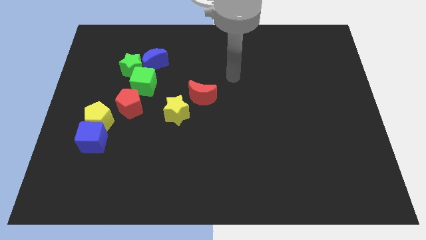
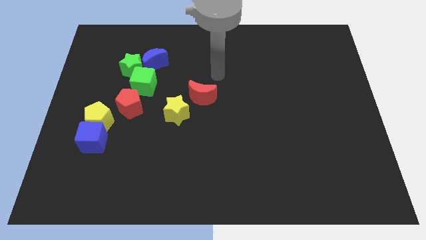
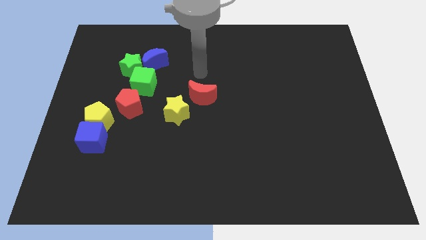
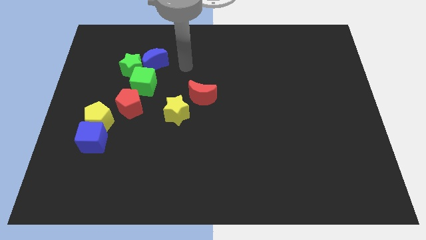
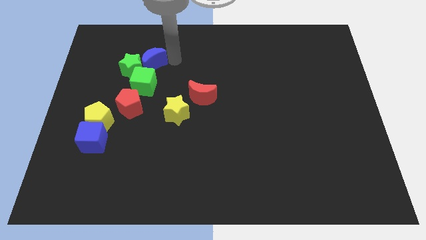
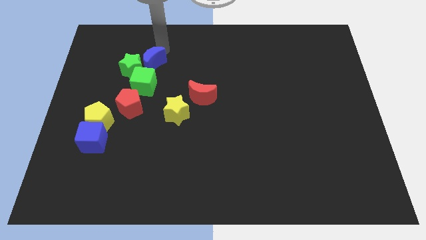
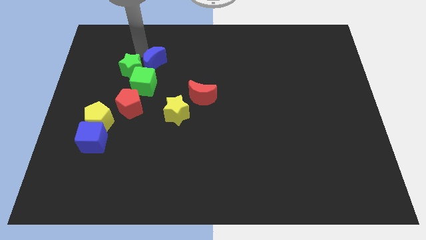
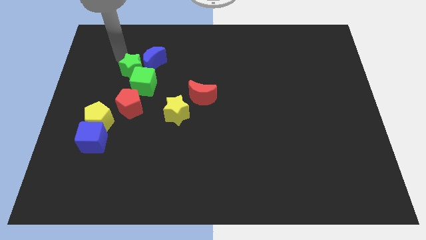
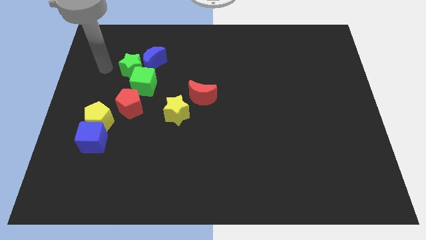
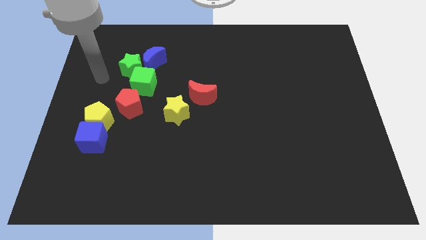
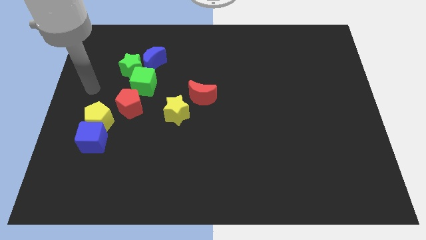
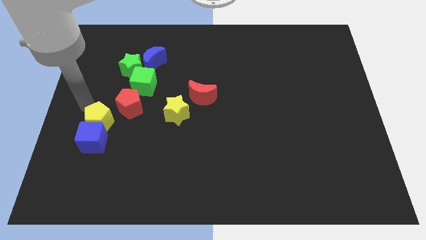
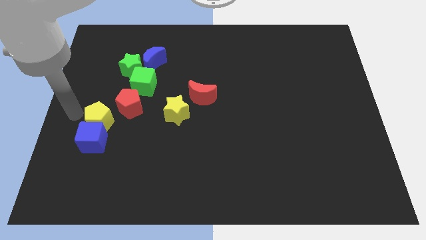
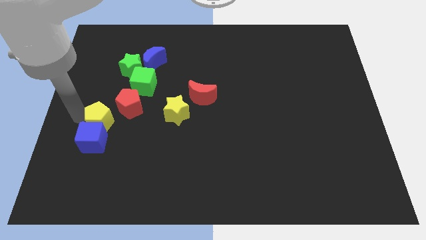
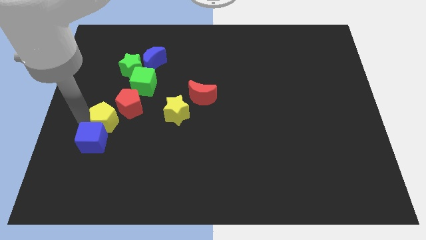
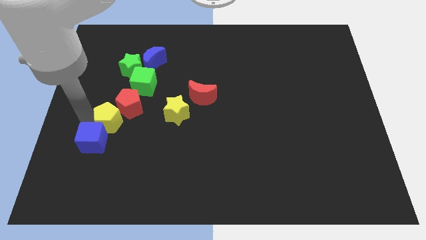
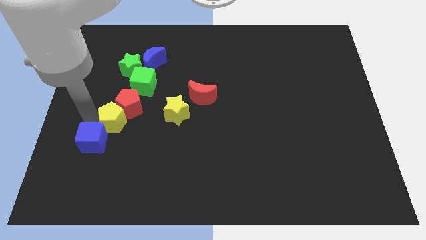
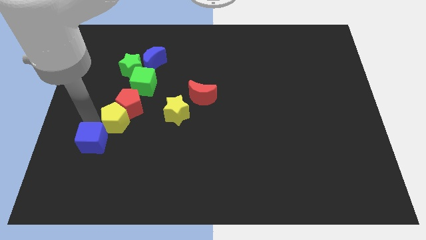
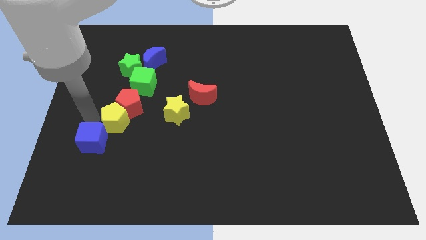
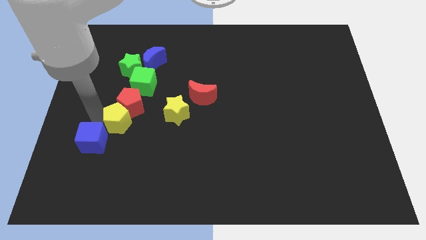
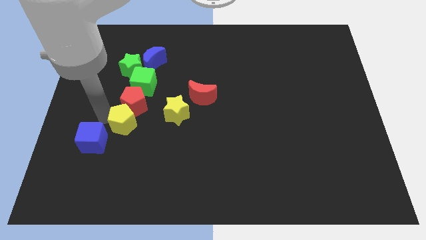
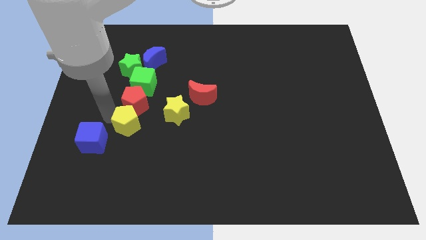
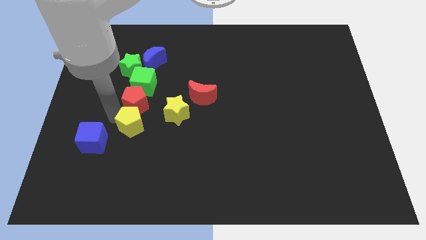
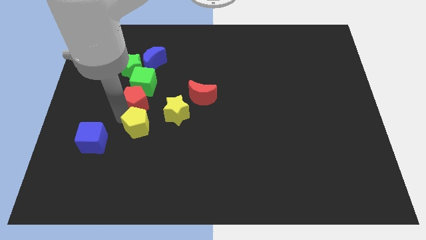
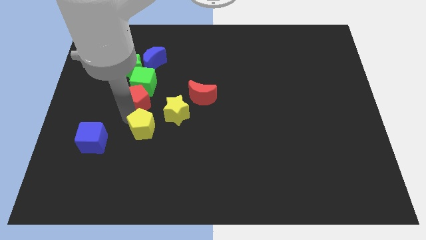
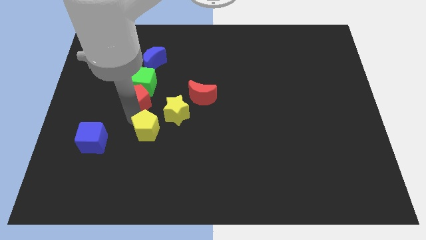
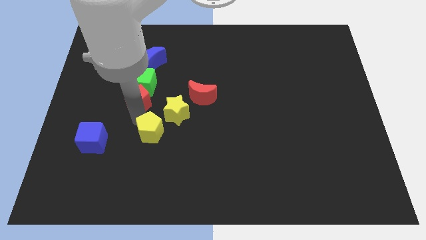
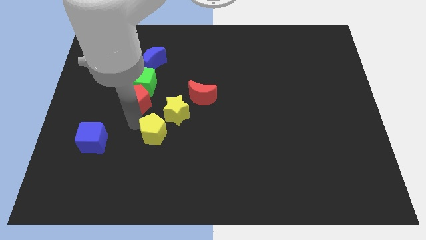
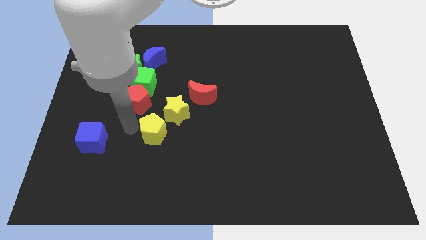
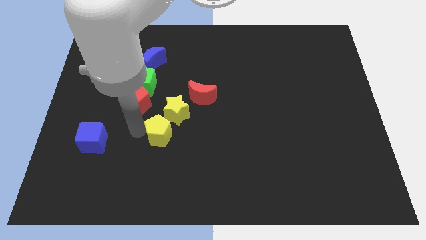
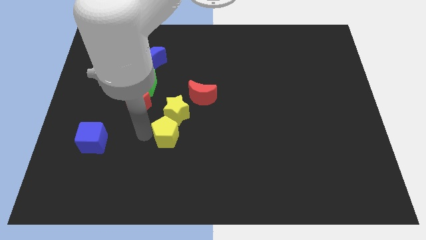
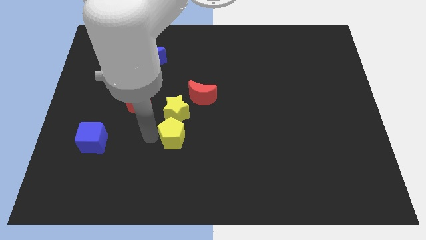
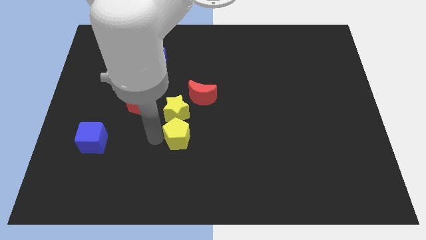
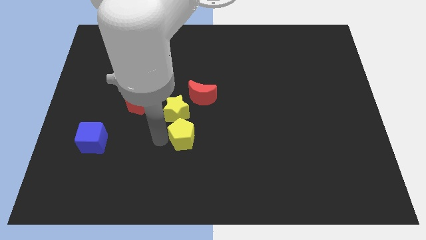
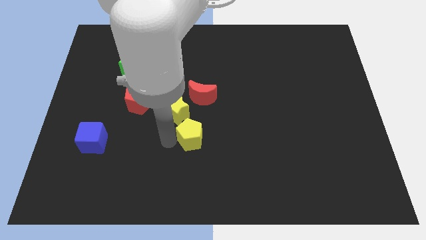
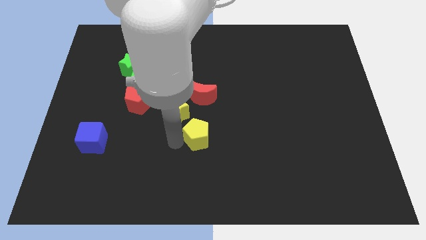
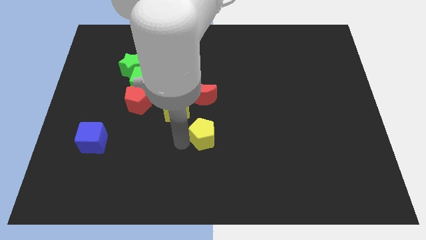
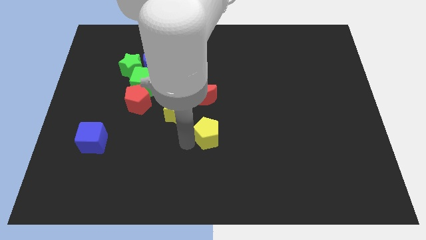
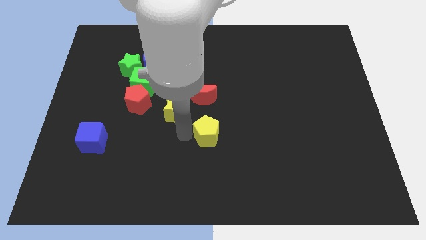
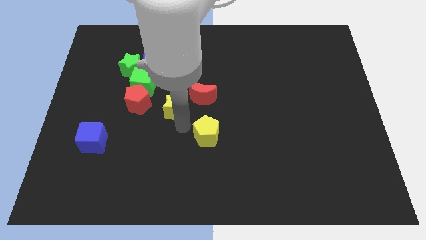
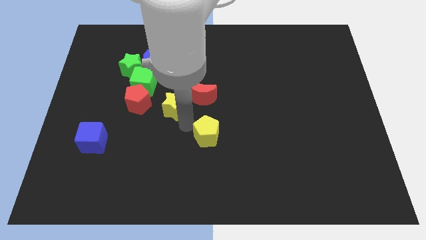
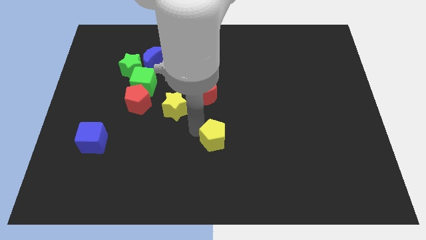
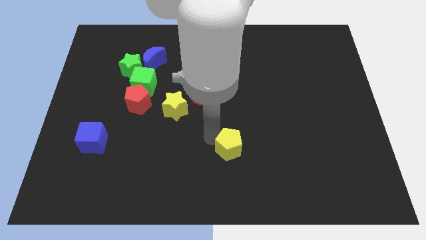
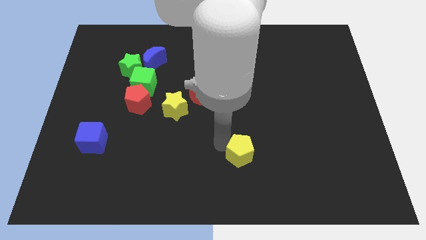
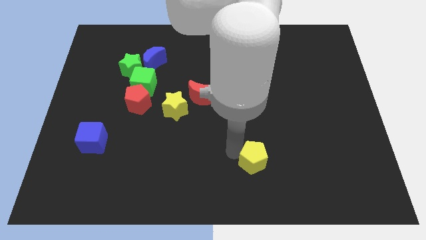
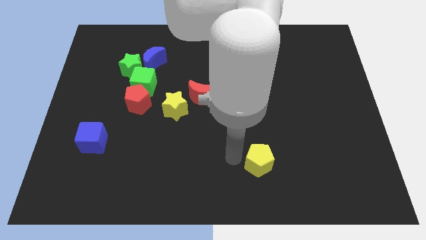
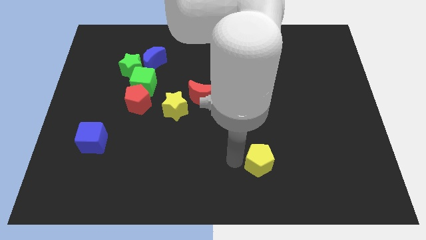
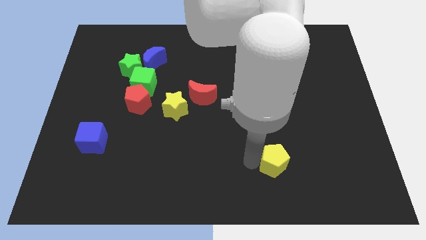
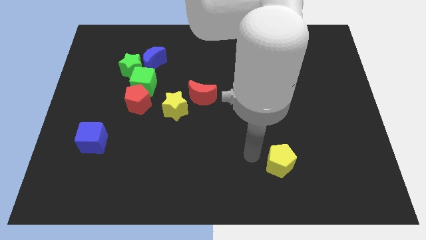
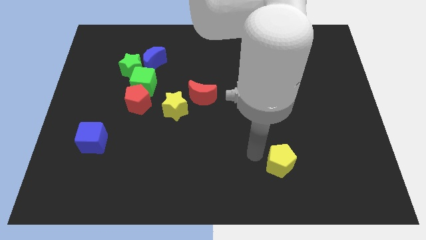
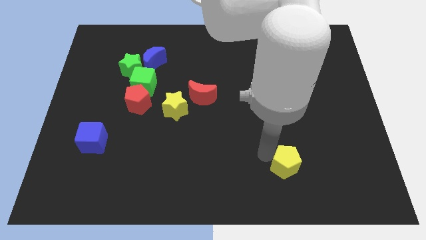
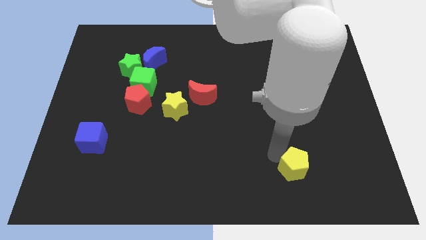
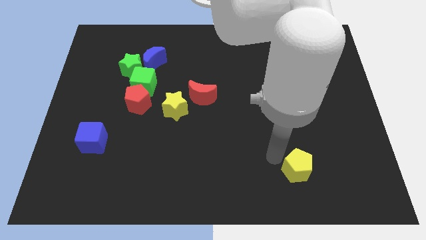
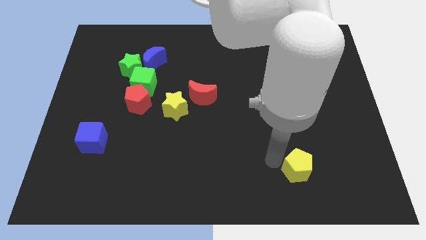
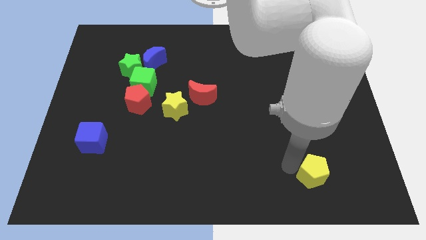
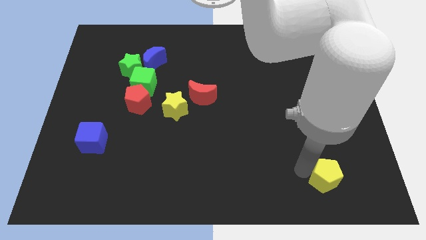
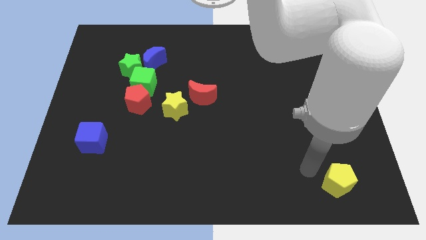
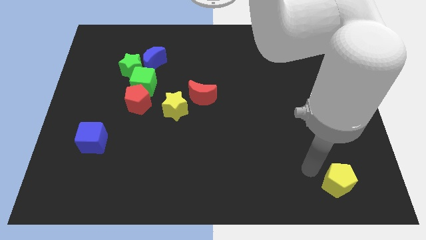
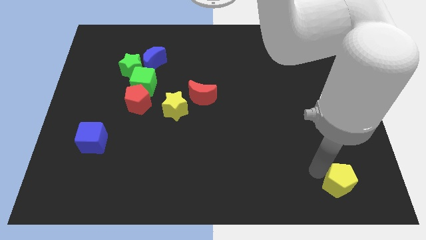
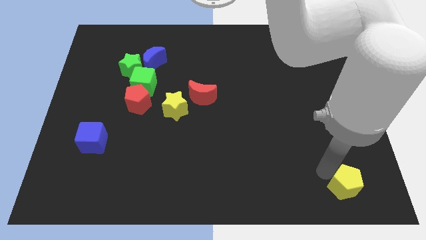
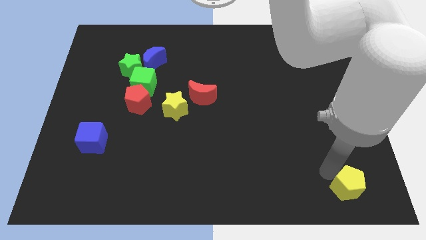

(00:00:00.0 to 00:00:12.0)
slide the yellow pentagon to the bottom right of the board

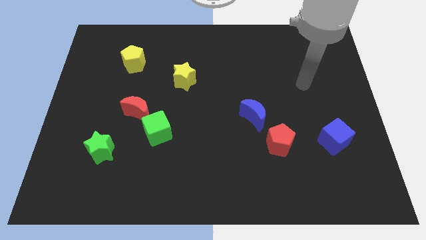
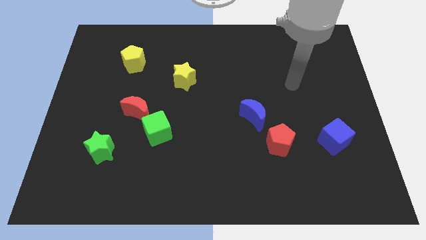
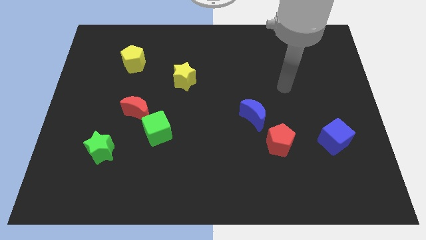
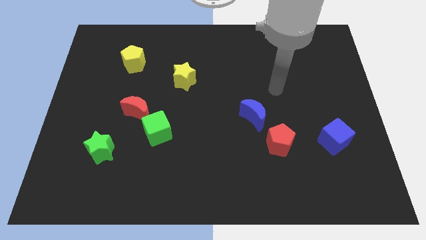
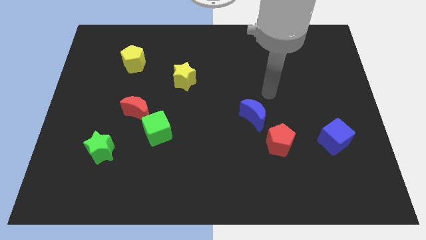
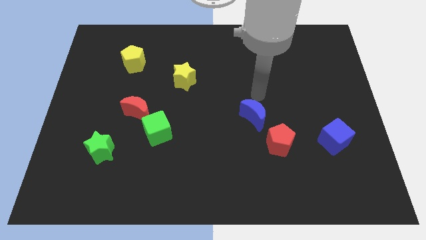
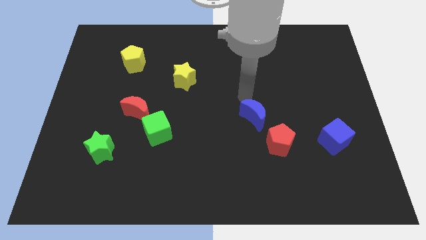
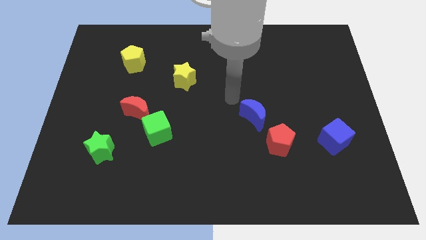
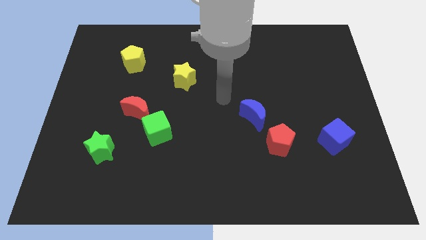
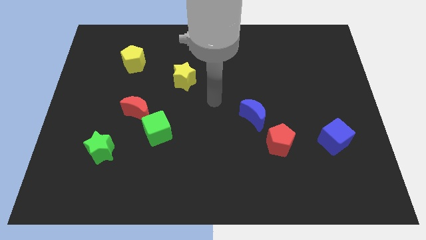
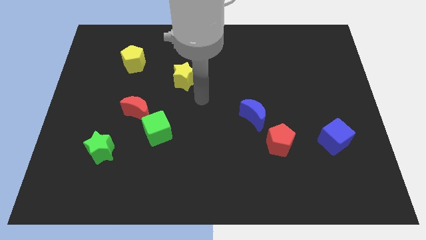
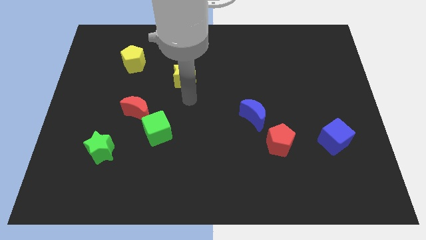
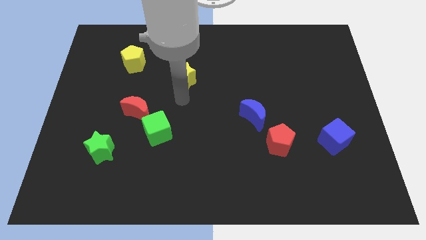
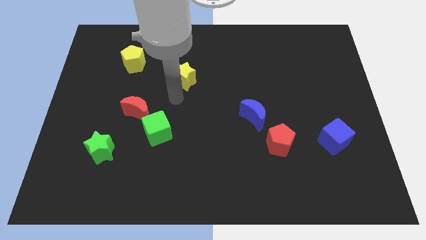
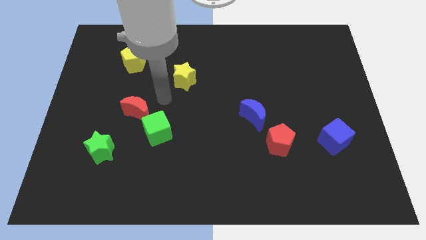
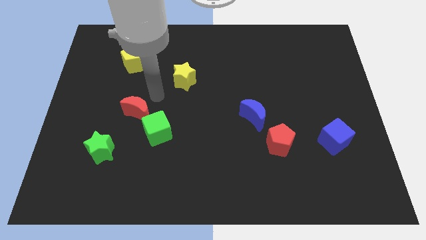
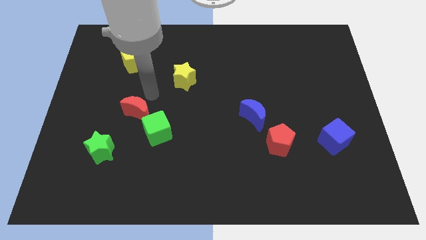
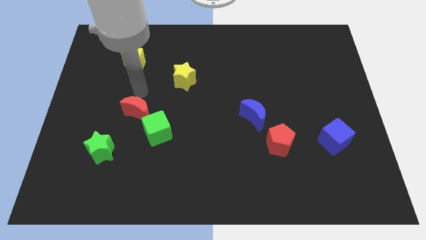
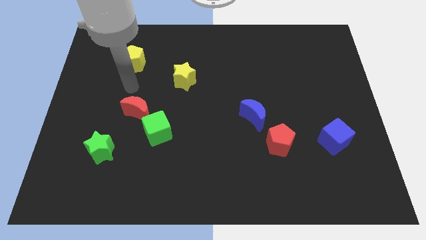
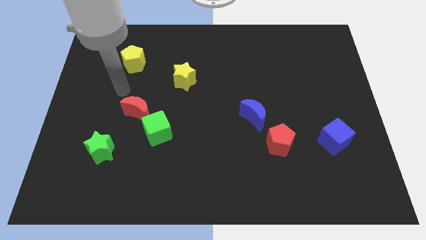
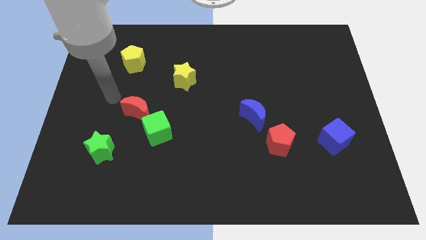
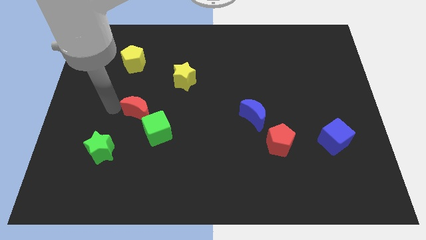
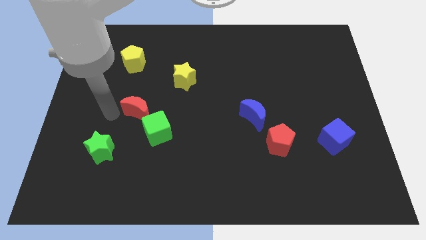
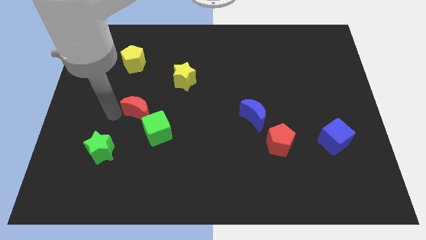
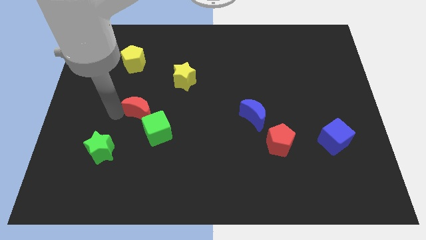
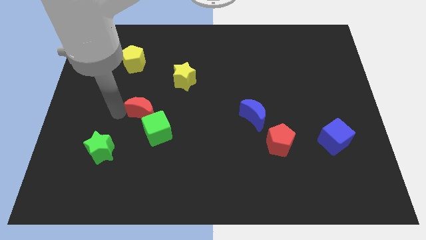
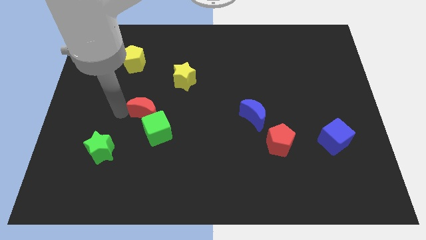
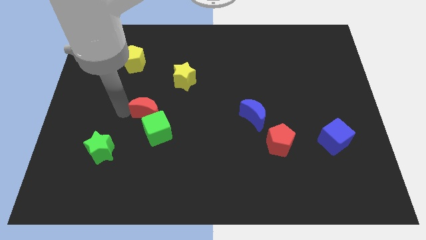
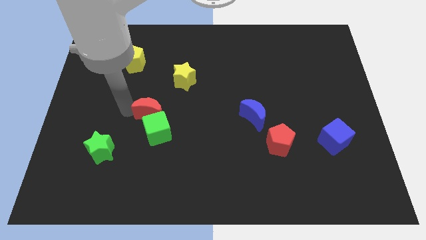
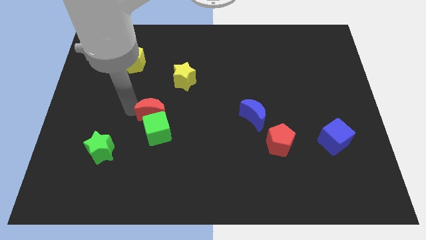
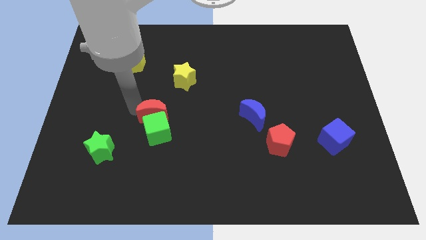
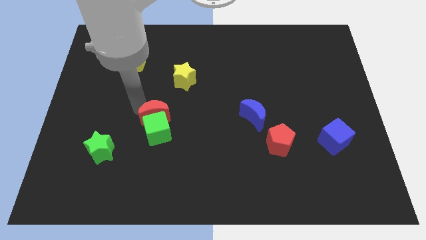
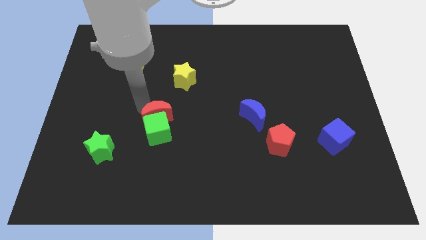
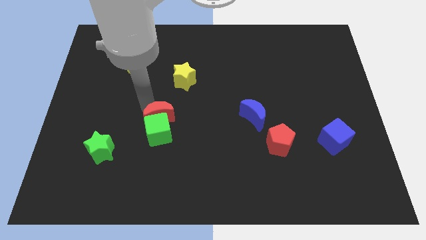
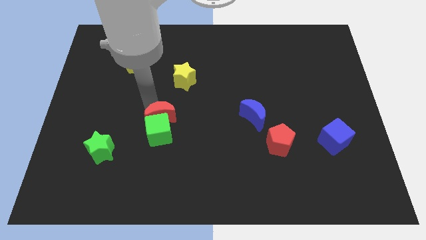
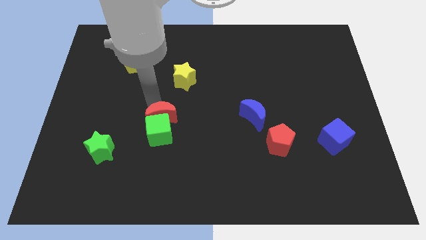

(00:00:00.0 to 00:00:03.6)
push the red moon to the center of the board
